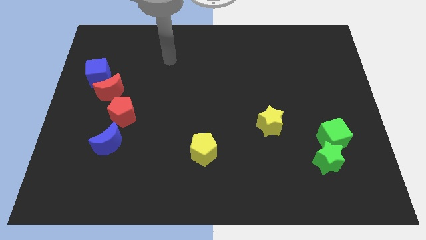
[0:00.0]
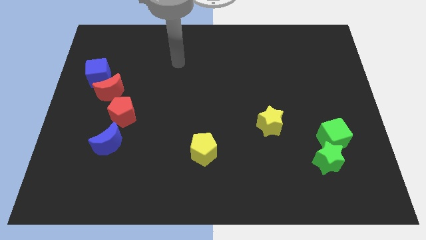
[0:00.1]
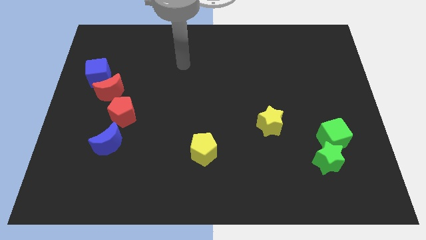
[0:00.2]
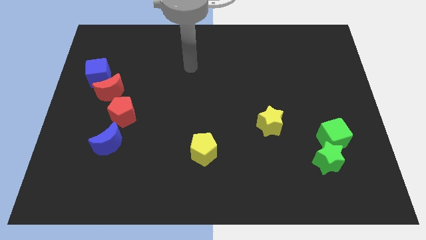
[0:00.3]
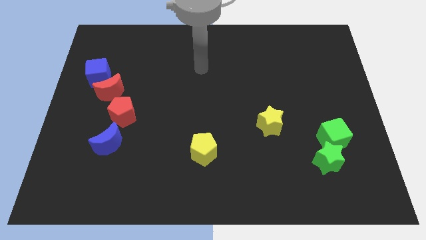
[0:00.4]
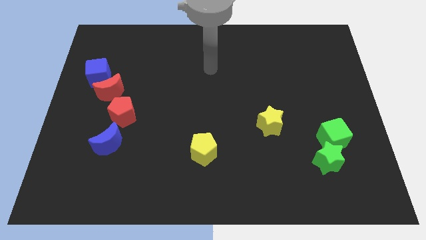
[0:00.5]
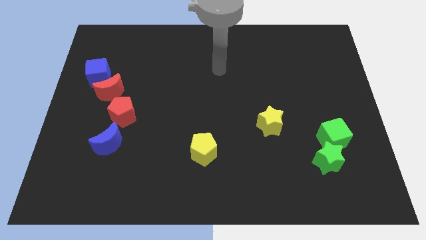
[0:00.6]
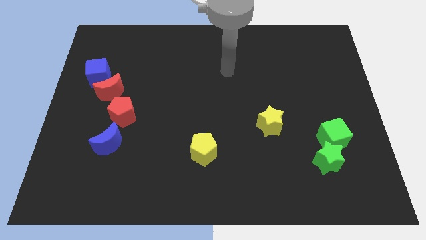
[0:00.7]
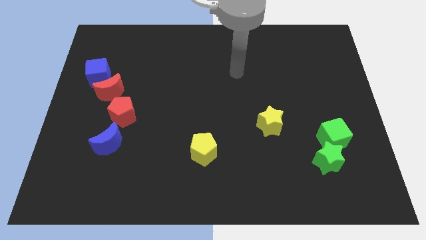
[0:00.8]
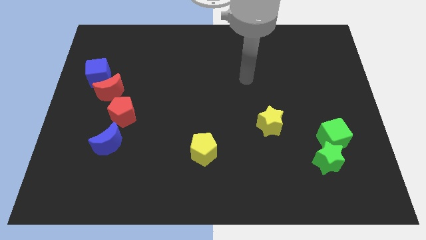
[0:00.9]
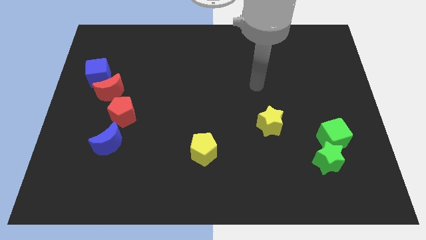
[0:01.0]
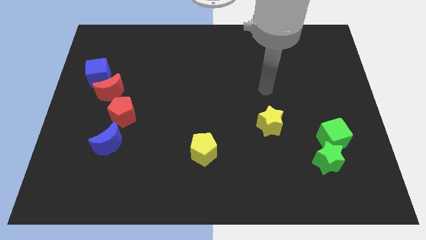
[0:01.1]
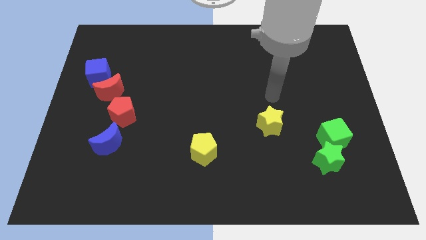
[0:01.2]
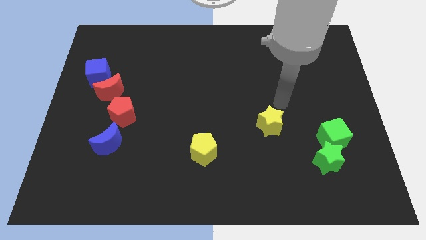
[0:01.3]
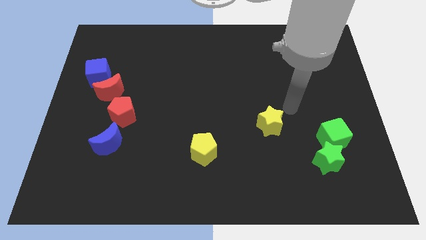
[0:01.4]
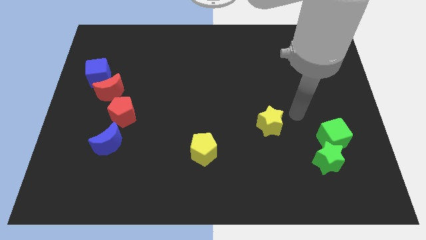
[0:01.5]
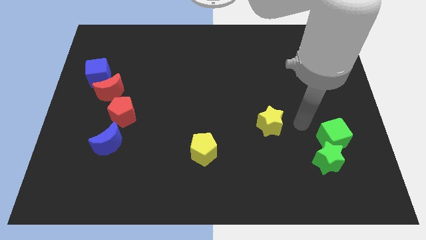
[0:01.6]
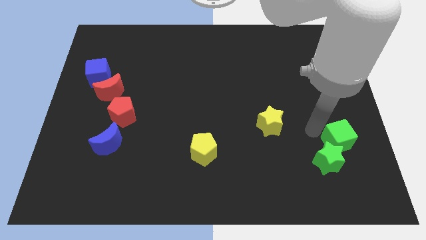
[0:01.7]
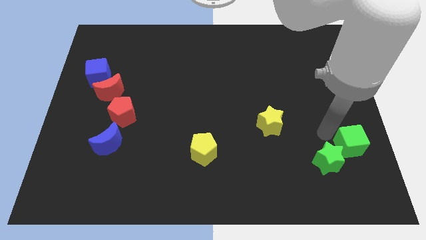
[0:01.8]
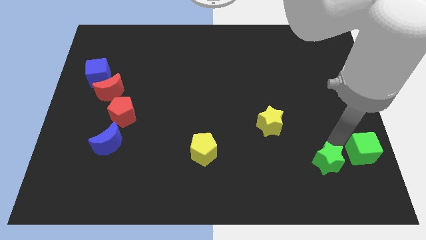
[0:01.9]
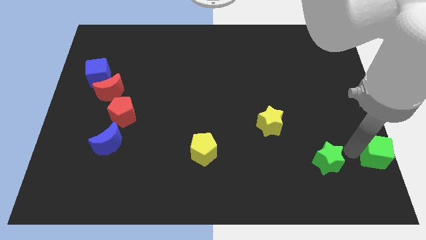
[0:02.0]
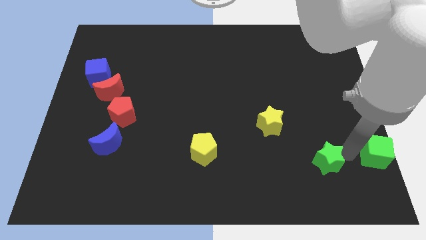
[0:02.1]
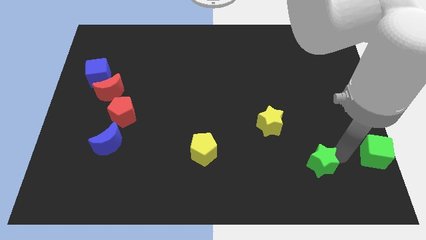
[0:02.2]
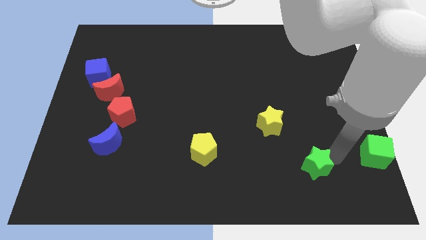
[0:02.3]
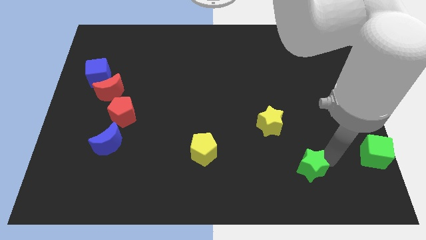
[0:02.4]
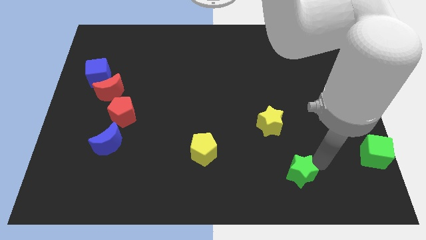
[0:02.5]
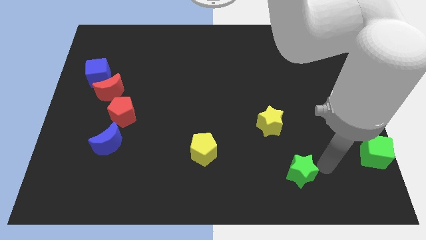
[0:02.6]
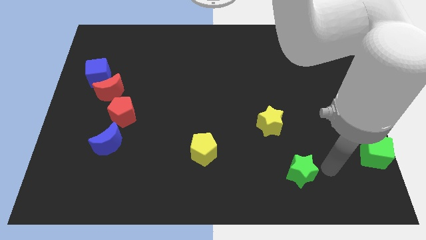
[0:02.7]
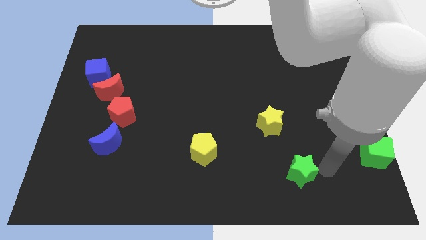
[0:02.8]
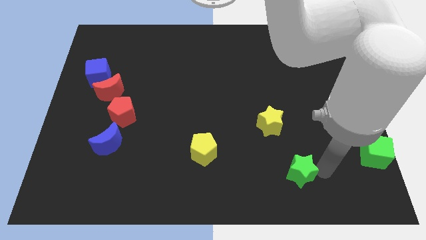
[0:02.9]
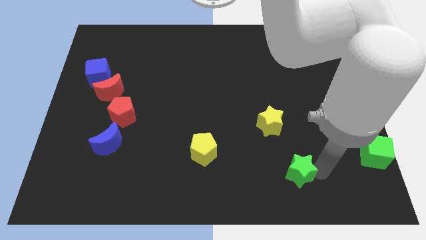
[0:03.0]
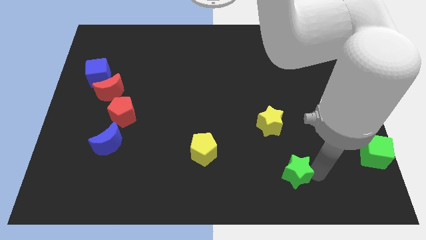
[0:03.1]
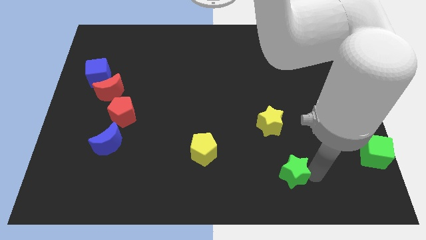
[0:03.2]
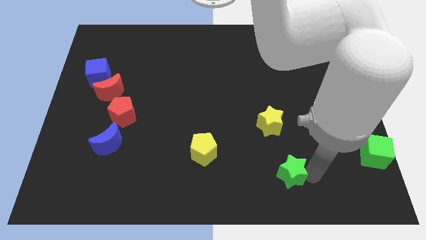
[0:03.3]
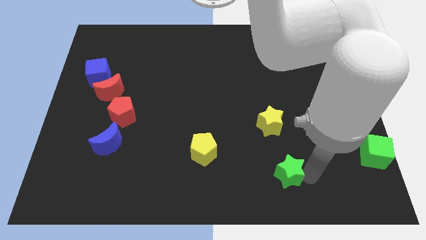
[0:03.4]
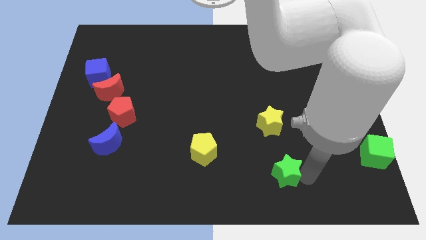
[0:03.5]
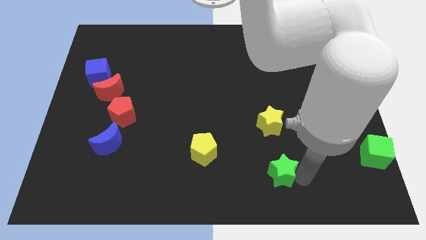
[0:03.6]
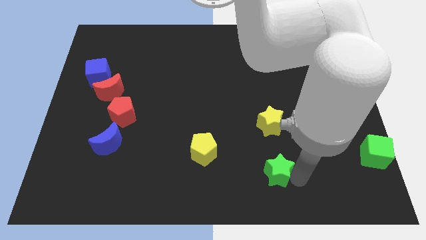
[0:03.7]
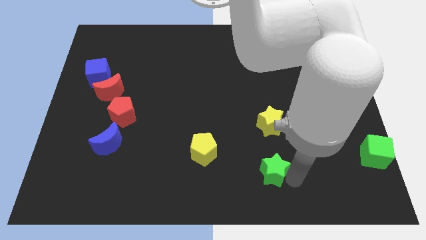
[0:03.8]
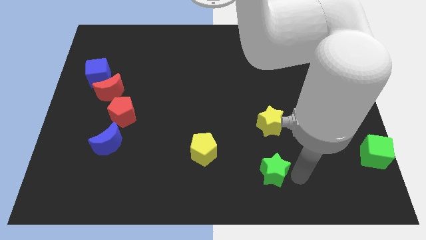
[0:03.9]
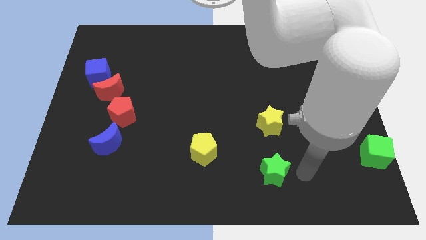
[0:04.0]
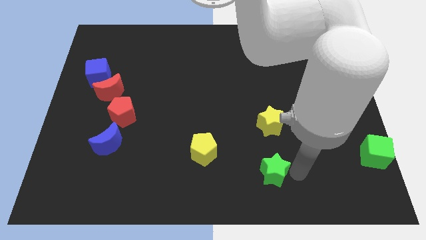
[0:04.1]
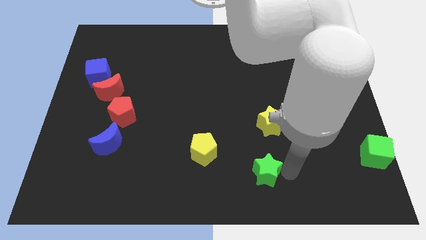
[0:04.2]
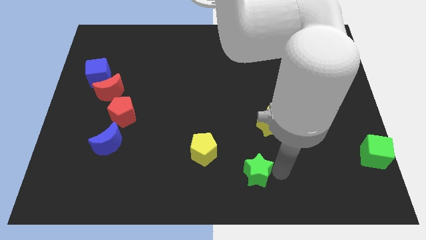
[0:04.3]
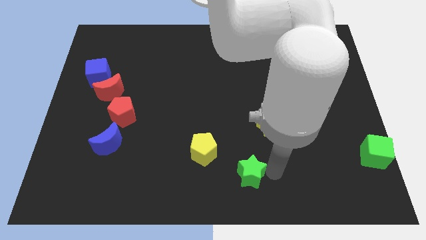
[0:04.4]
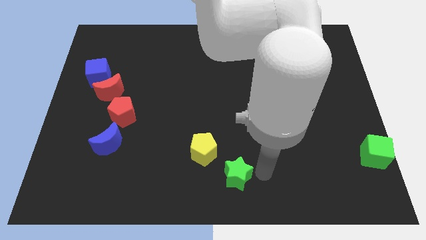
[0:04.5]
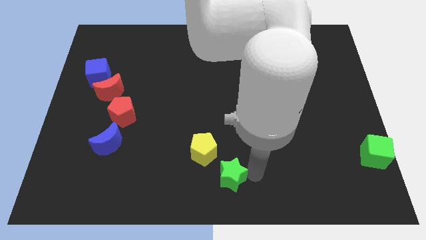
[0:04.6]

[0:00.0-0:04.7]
push the green star left

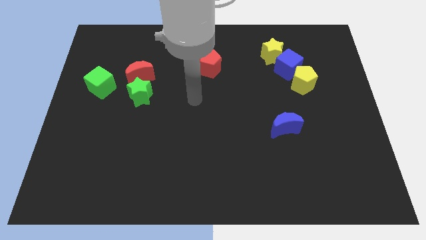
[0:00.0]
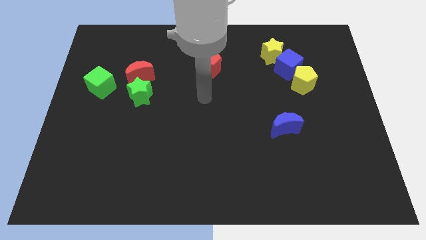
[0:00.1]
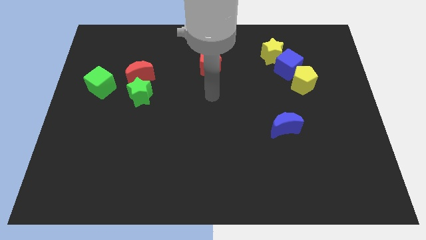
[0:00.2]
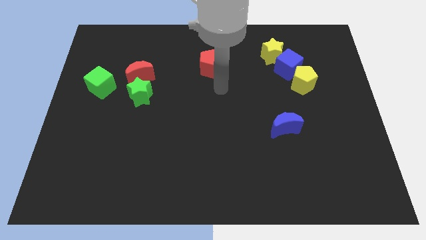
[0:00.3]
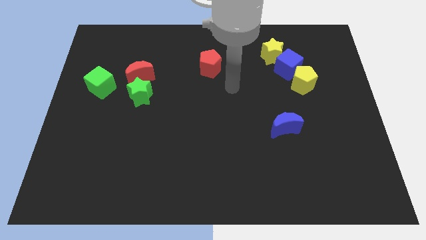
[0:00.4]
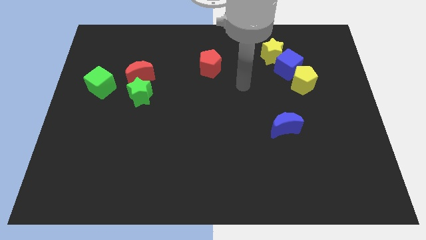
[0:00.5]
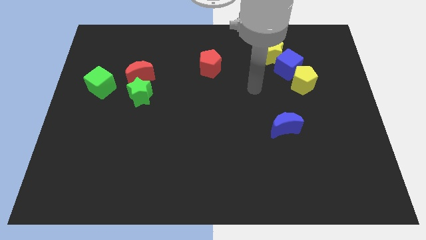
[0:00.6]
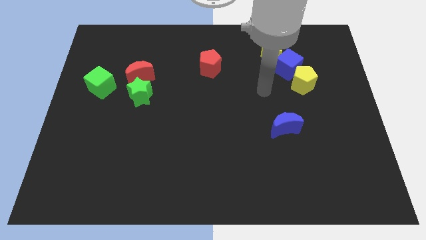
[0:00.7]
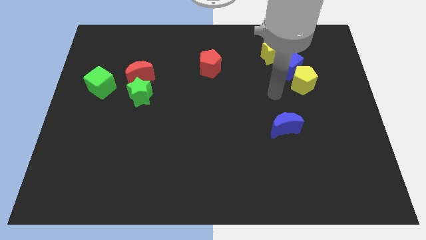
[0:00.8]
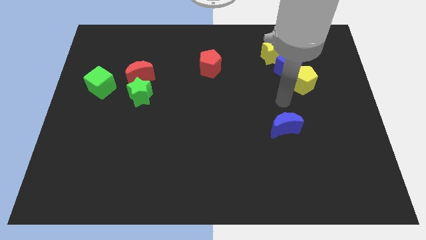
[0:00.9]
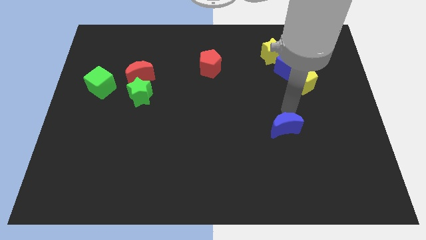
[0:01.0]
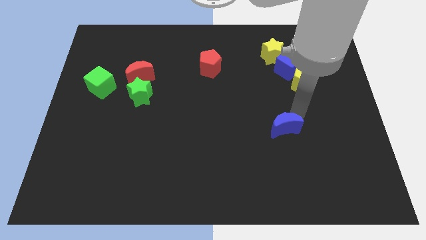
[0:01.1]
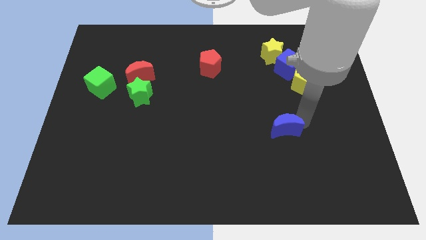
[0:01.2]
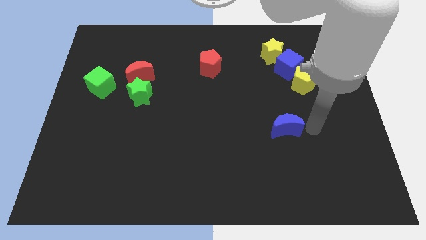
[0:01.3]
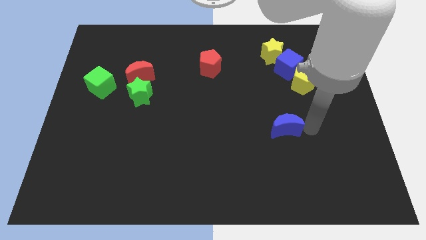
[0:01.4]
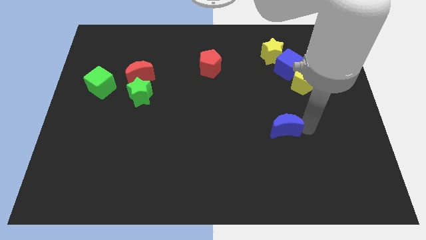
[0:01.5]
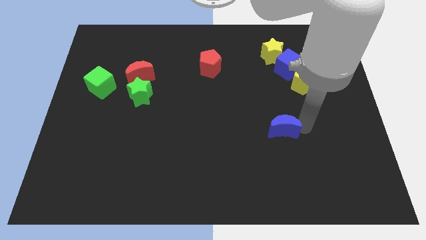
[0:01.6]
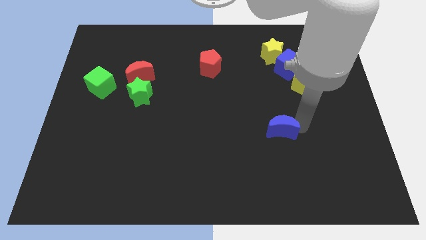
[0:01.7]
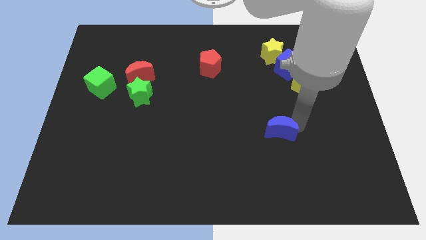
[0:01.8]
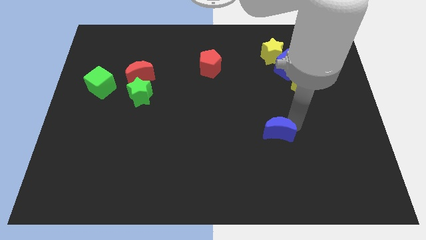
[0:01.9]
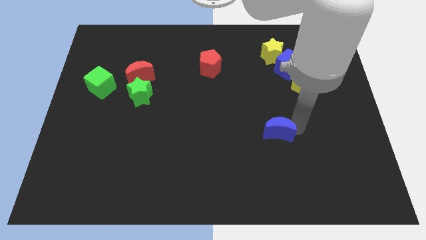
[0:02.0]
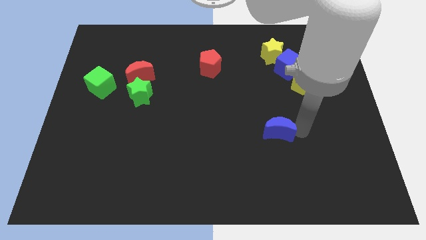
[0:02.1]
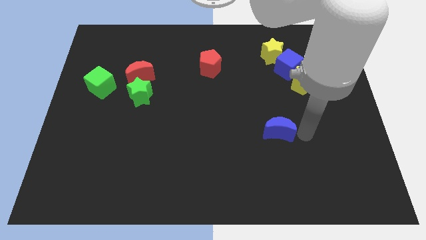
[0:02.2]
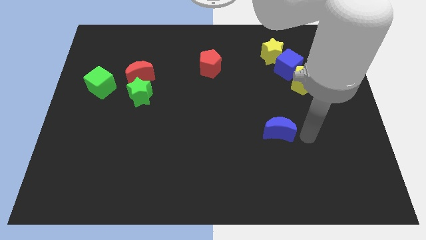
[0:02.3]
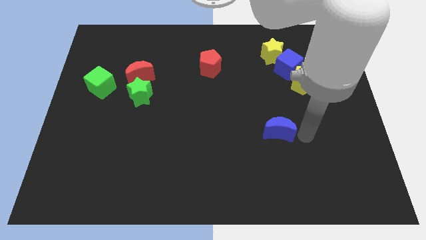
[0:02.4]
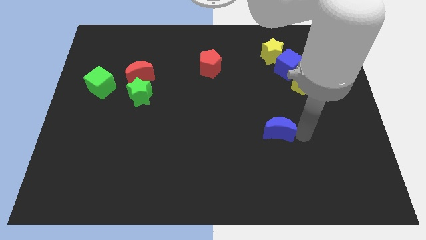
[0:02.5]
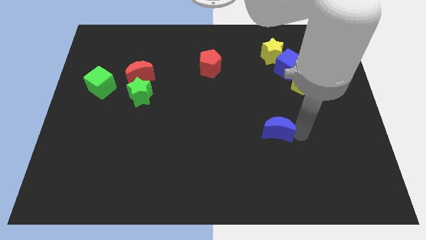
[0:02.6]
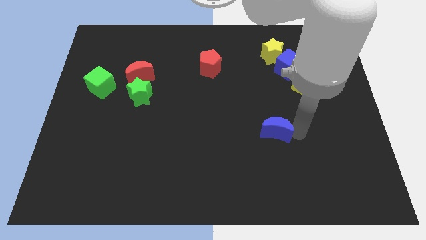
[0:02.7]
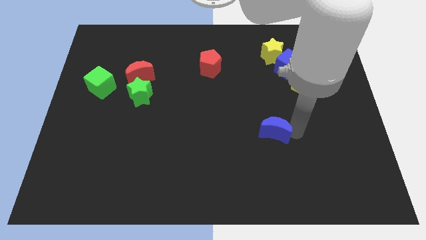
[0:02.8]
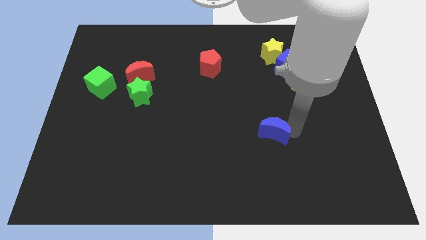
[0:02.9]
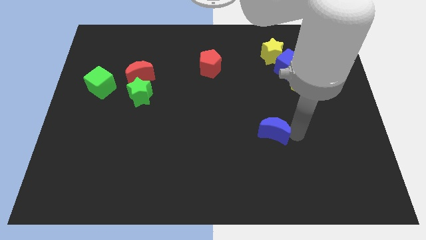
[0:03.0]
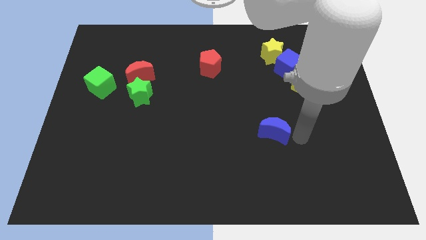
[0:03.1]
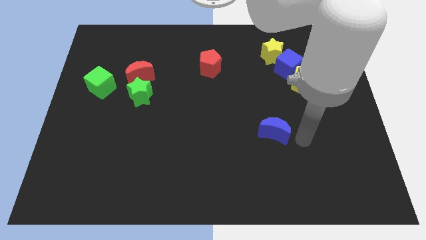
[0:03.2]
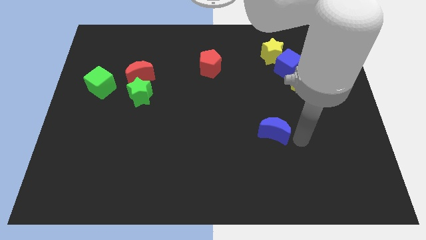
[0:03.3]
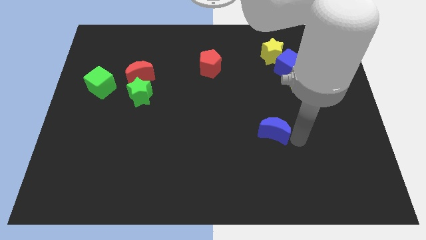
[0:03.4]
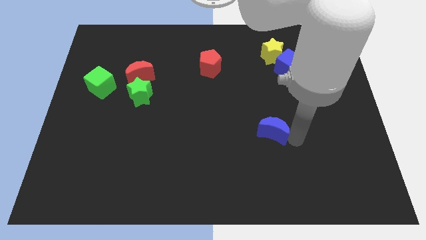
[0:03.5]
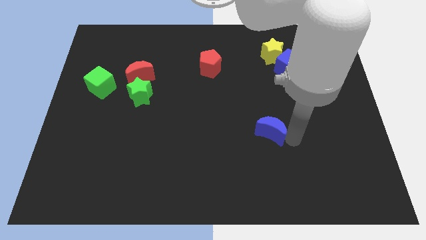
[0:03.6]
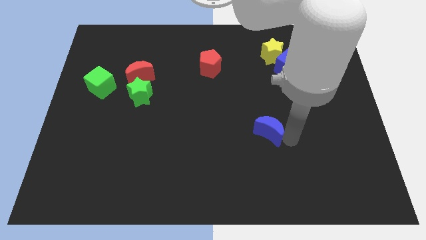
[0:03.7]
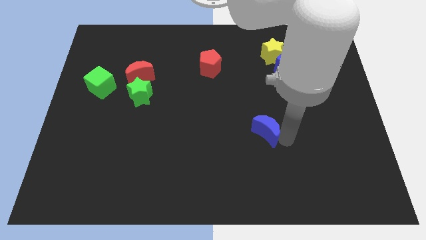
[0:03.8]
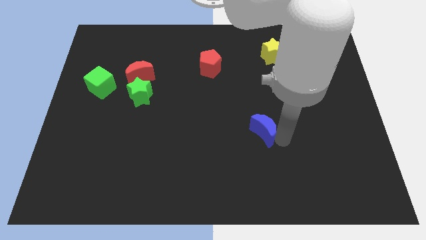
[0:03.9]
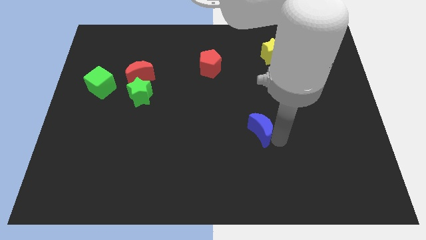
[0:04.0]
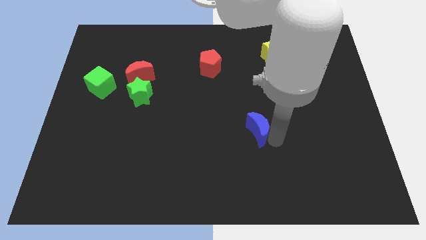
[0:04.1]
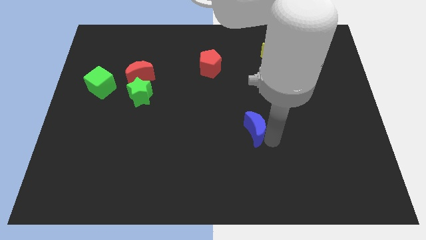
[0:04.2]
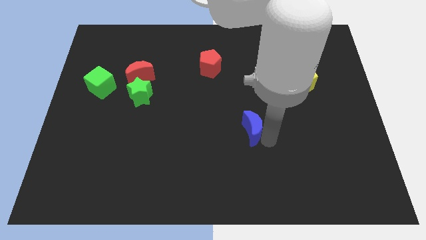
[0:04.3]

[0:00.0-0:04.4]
slide the blue moon a little to the left
